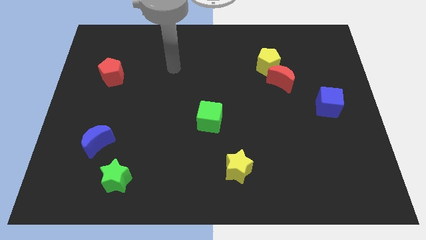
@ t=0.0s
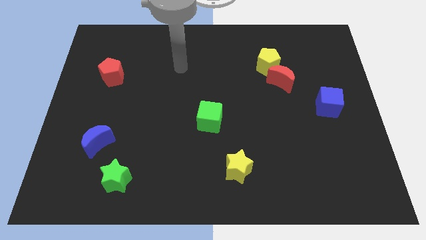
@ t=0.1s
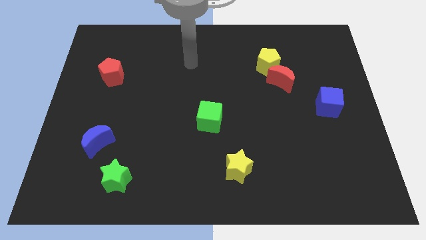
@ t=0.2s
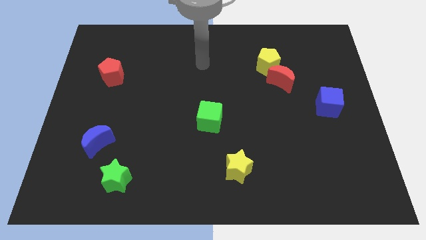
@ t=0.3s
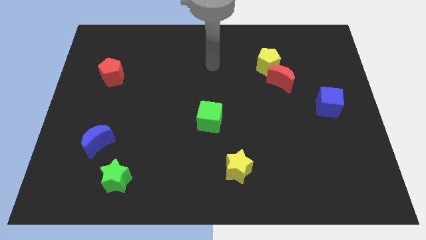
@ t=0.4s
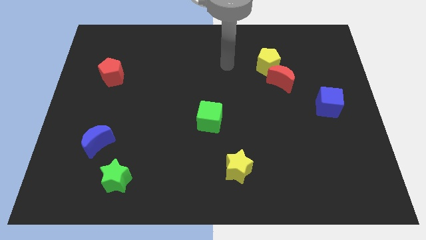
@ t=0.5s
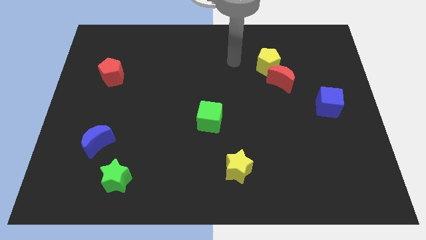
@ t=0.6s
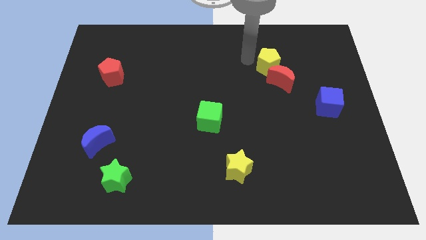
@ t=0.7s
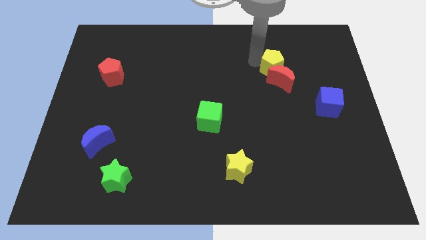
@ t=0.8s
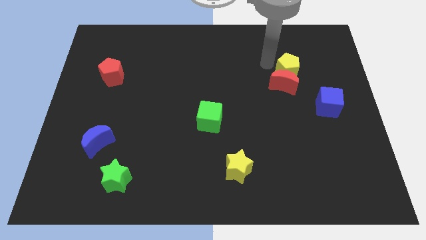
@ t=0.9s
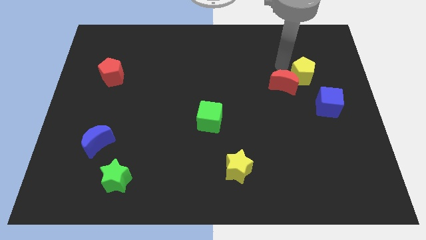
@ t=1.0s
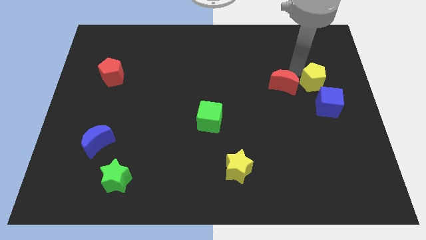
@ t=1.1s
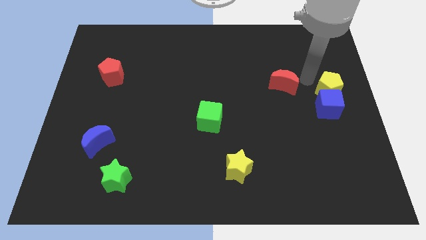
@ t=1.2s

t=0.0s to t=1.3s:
separate the red moon from the yellow pentagon

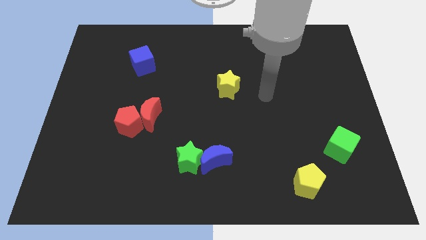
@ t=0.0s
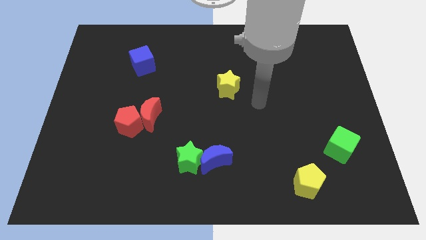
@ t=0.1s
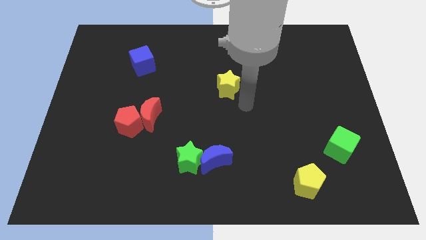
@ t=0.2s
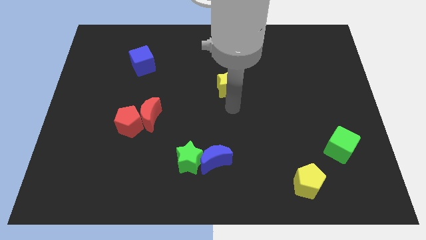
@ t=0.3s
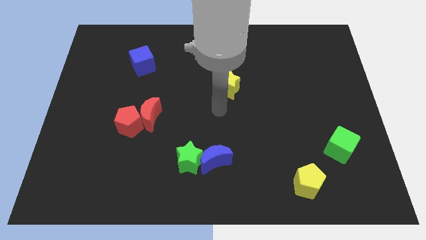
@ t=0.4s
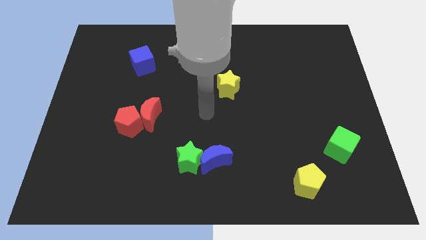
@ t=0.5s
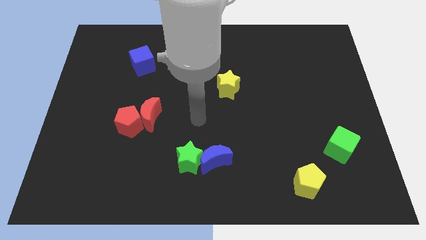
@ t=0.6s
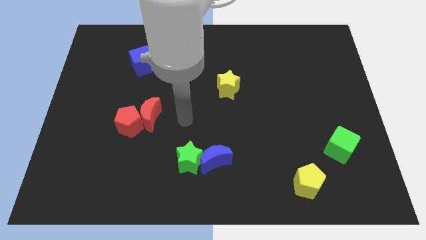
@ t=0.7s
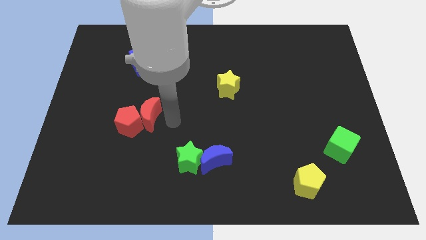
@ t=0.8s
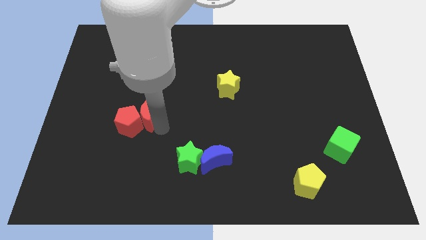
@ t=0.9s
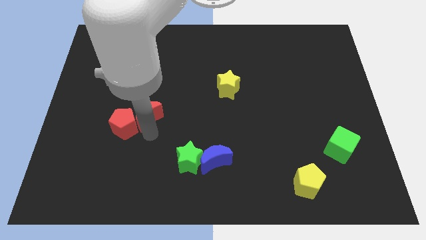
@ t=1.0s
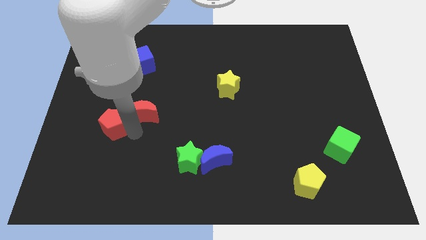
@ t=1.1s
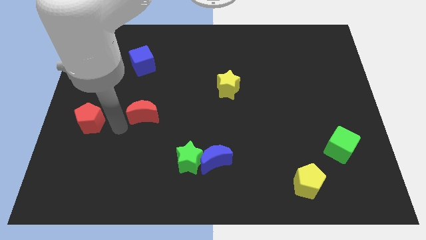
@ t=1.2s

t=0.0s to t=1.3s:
separate the red moon from the red pentagon

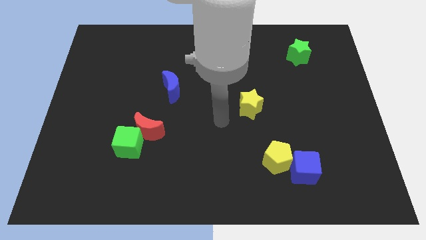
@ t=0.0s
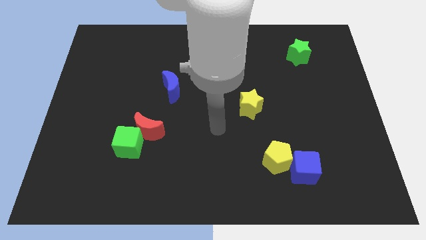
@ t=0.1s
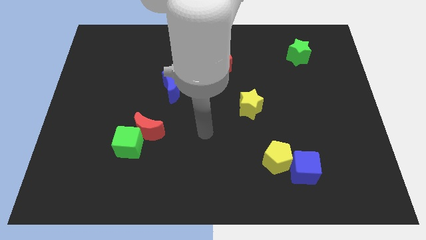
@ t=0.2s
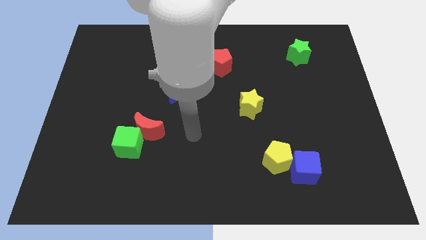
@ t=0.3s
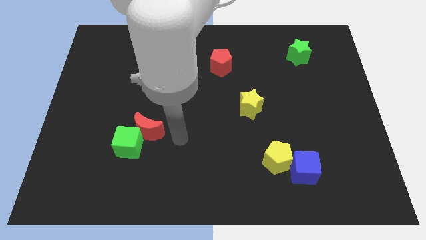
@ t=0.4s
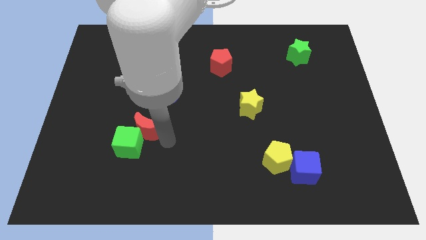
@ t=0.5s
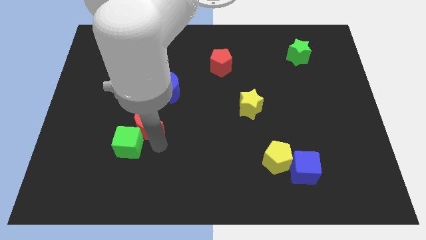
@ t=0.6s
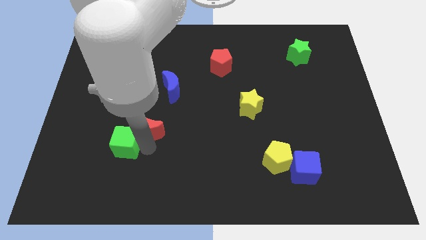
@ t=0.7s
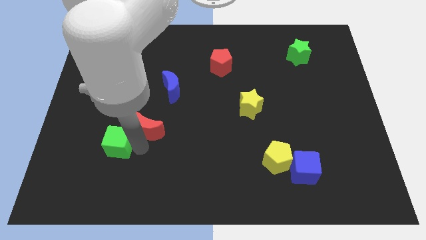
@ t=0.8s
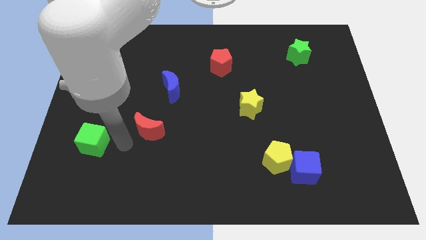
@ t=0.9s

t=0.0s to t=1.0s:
separate the red moon from the green cube

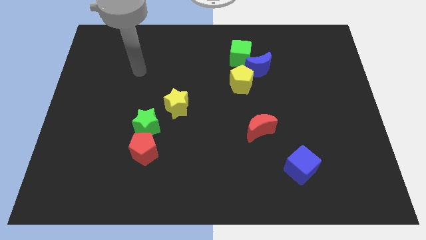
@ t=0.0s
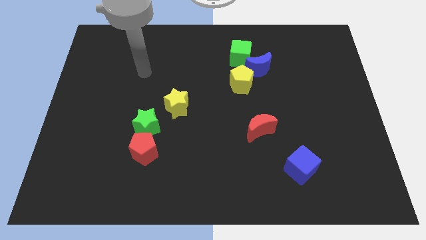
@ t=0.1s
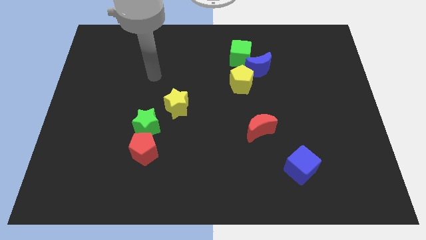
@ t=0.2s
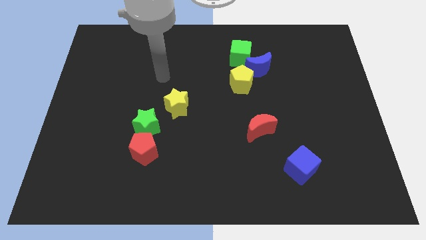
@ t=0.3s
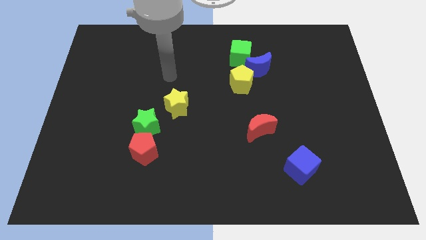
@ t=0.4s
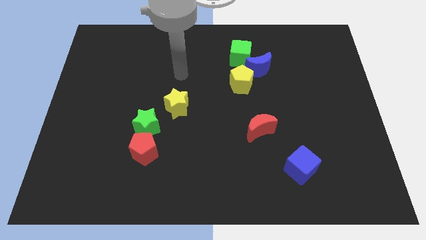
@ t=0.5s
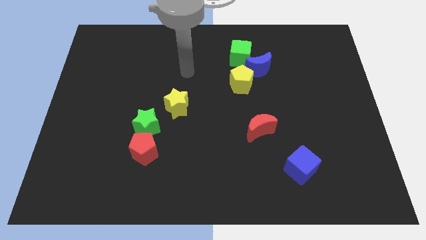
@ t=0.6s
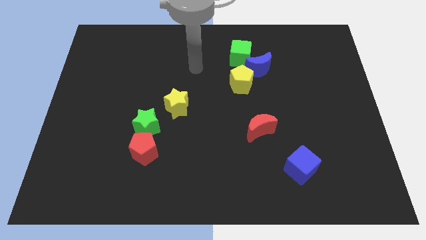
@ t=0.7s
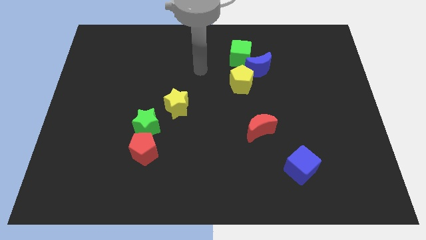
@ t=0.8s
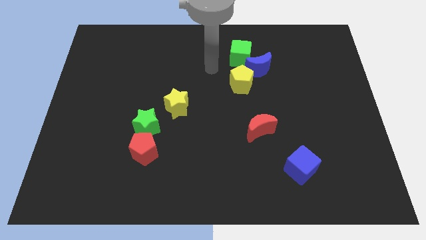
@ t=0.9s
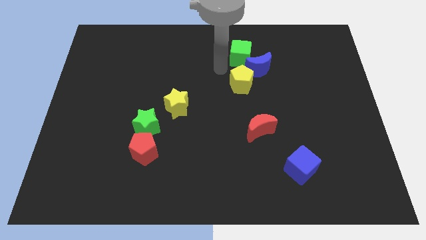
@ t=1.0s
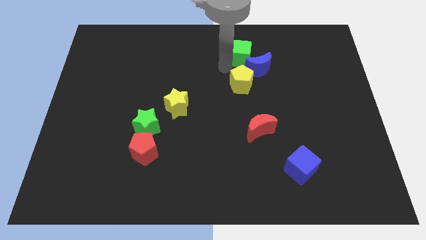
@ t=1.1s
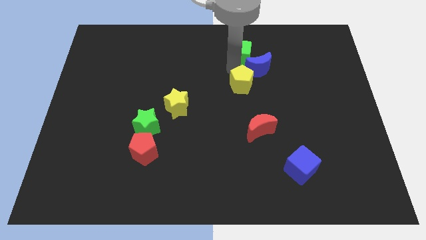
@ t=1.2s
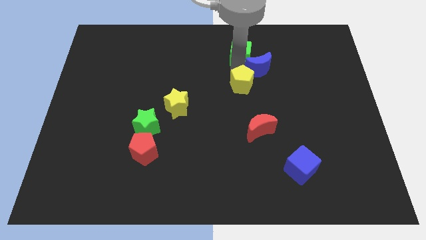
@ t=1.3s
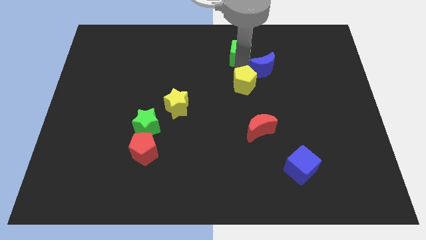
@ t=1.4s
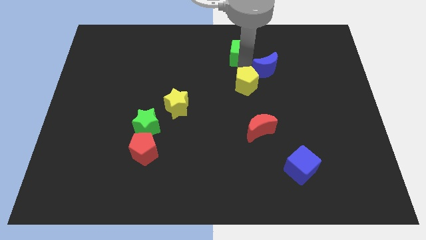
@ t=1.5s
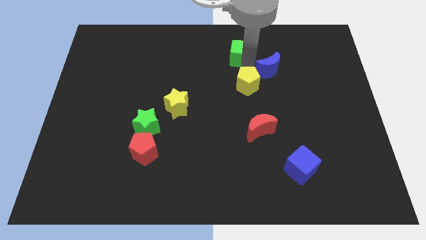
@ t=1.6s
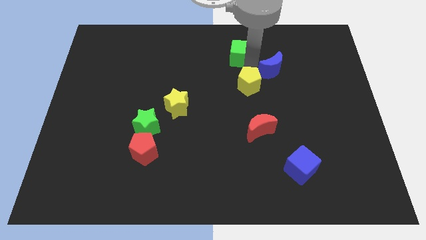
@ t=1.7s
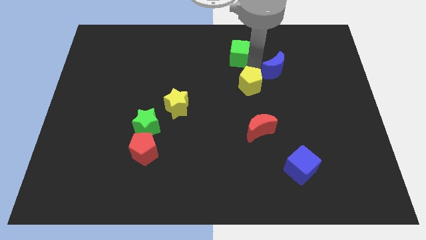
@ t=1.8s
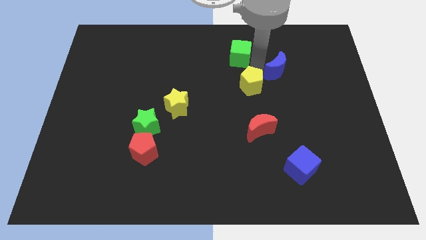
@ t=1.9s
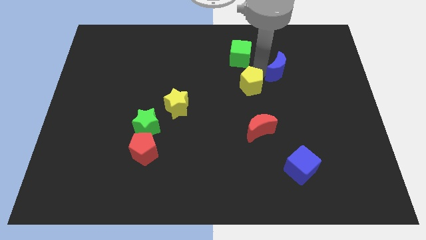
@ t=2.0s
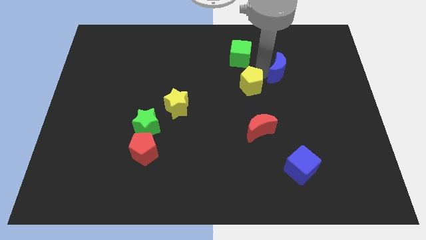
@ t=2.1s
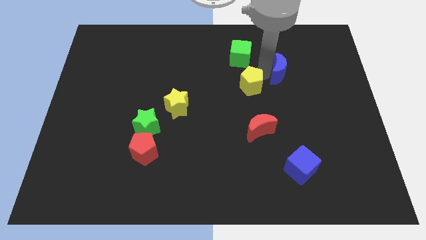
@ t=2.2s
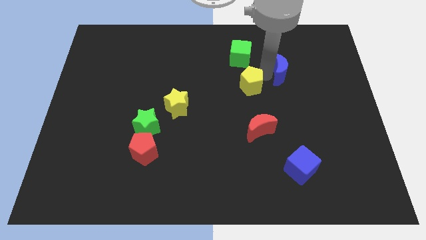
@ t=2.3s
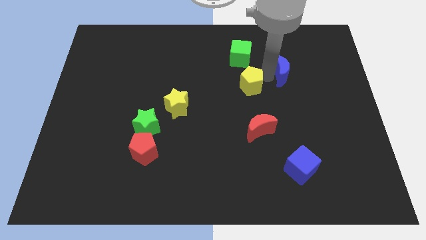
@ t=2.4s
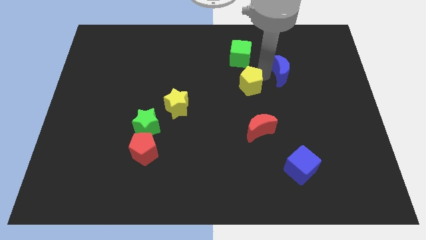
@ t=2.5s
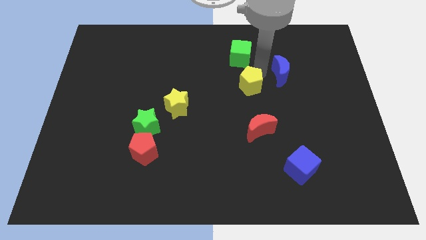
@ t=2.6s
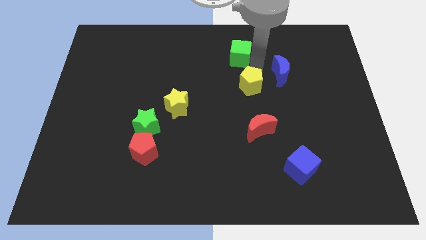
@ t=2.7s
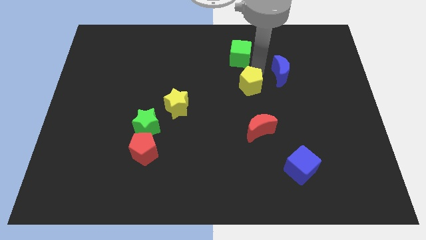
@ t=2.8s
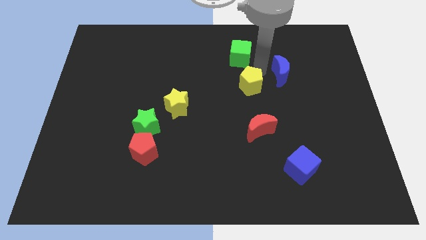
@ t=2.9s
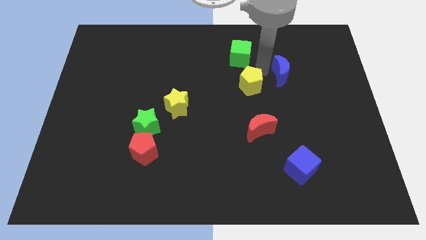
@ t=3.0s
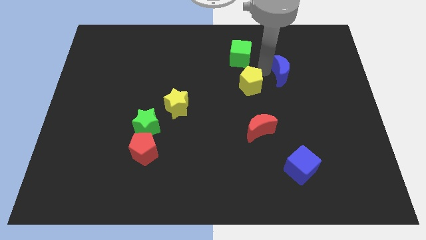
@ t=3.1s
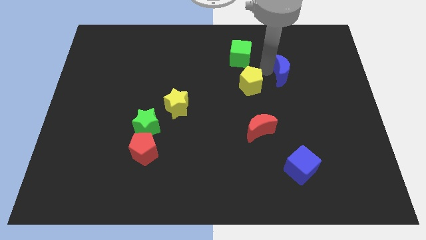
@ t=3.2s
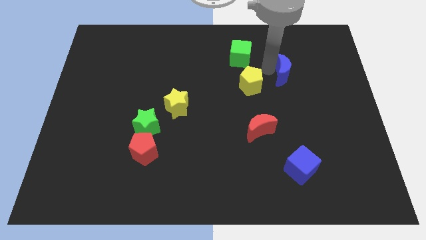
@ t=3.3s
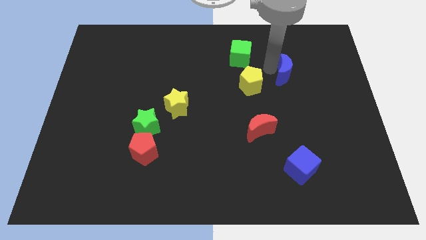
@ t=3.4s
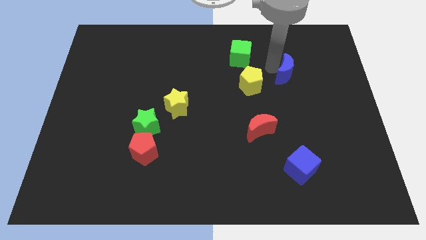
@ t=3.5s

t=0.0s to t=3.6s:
separate the blue moon from the green cube and yellow pentagon

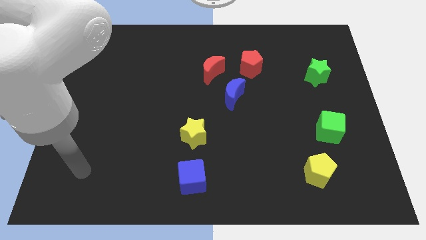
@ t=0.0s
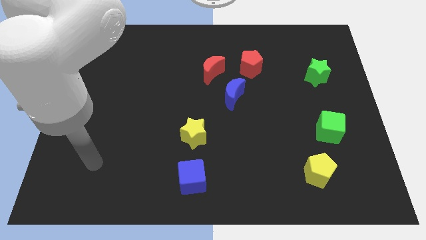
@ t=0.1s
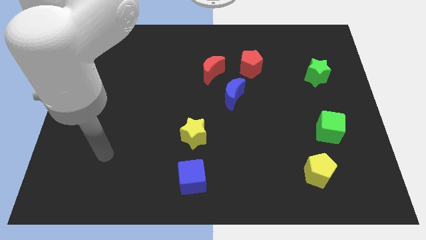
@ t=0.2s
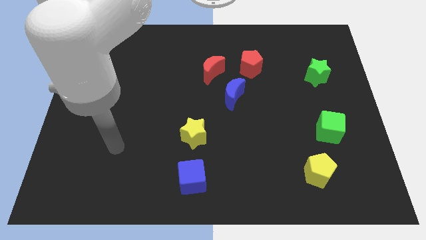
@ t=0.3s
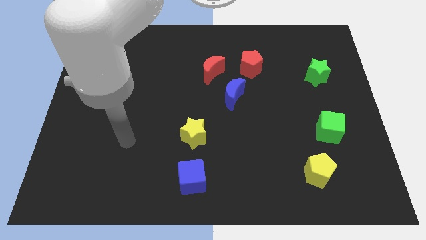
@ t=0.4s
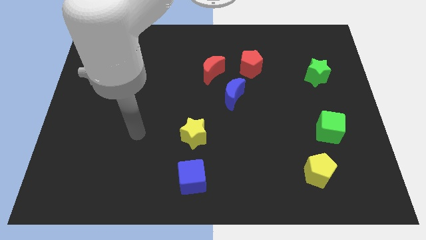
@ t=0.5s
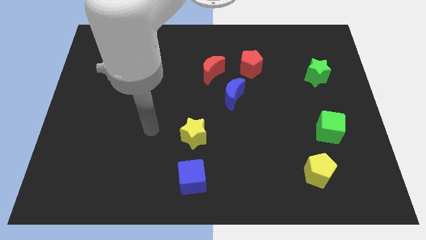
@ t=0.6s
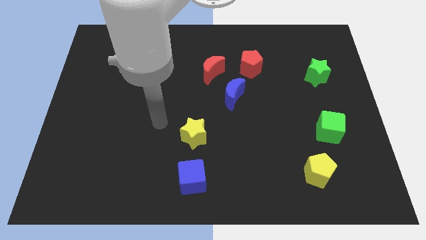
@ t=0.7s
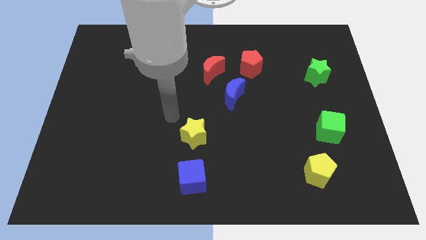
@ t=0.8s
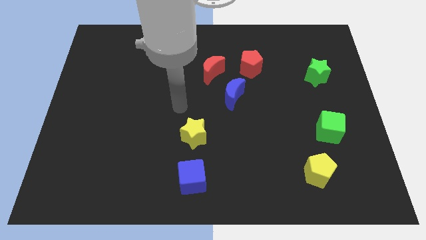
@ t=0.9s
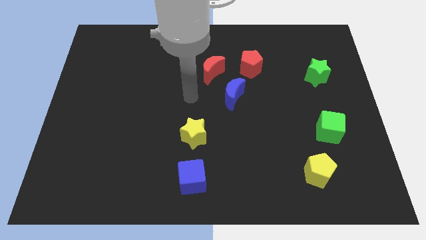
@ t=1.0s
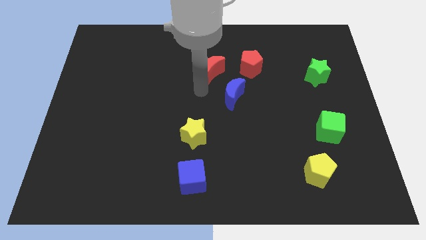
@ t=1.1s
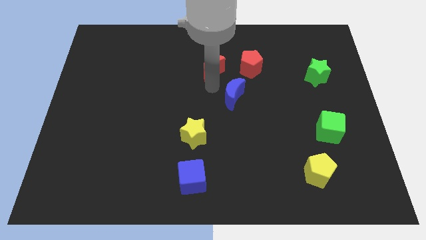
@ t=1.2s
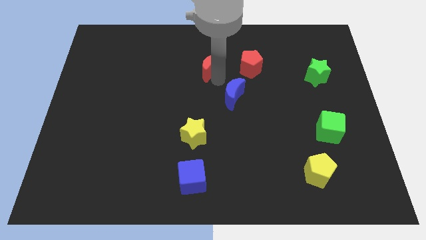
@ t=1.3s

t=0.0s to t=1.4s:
separate the blue moon from the red moon

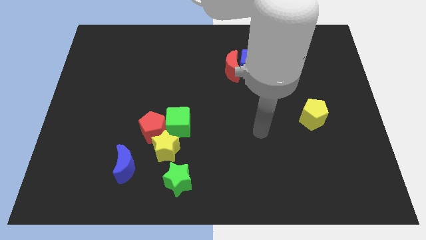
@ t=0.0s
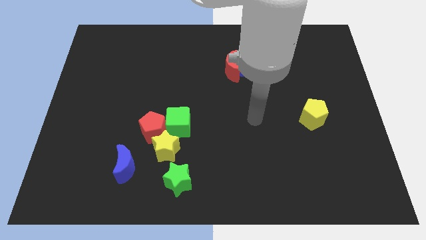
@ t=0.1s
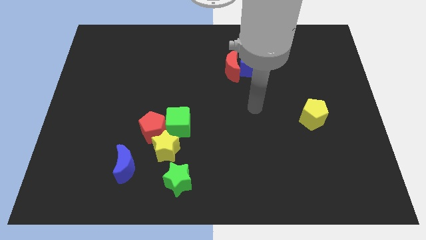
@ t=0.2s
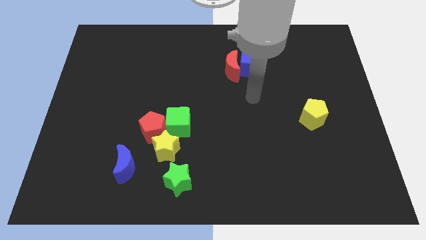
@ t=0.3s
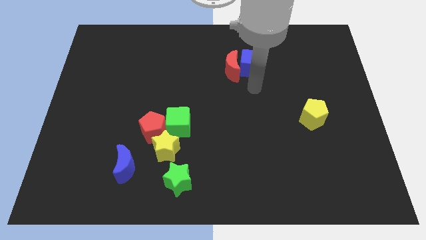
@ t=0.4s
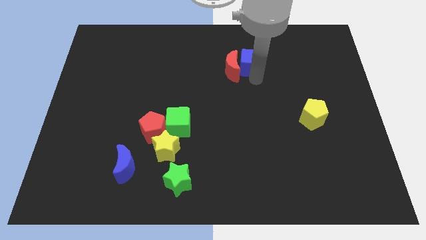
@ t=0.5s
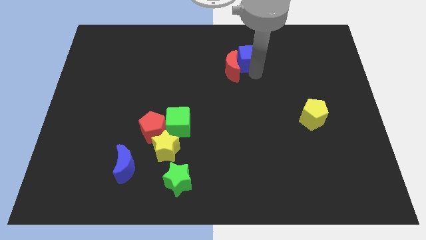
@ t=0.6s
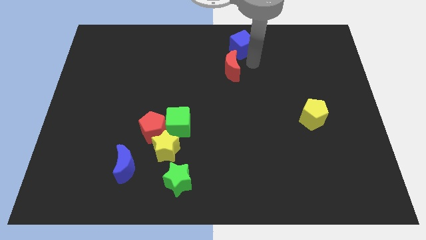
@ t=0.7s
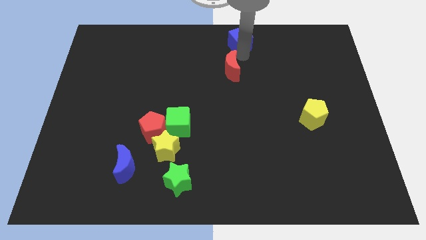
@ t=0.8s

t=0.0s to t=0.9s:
separate the red moon from the blue cube

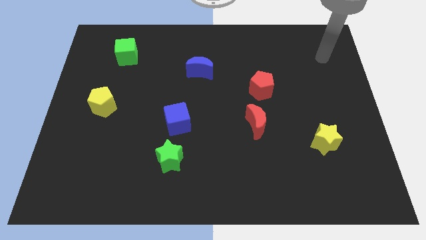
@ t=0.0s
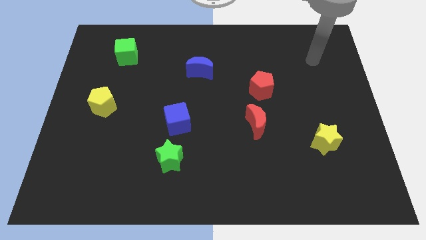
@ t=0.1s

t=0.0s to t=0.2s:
separate the blue cube from the green star
